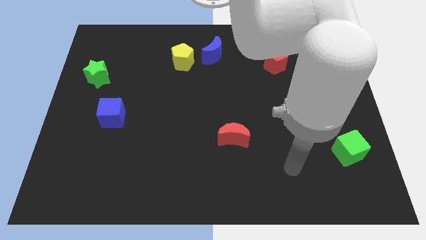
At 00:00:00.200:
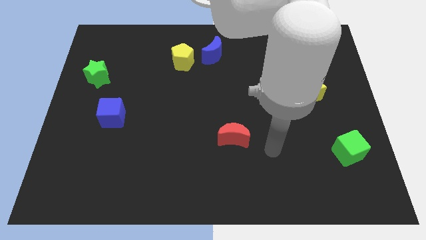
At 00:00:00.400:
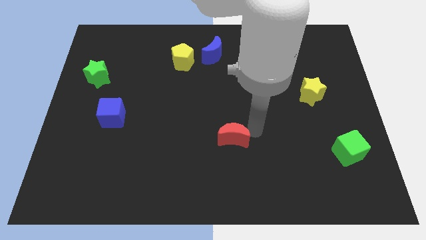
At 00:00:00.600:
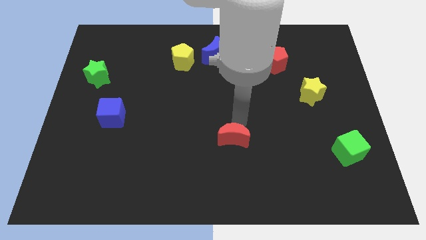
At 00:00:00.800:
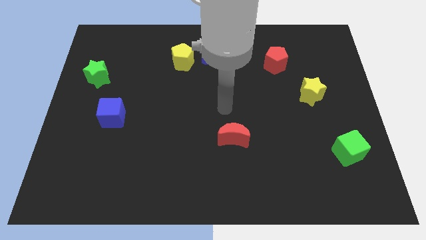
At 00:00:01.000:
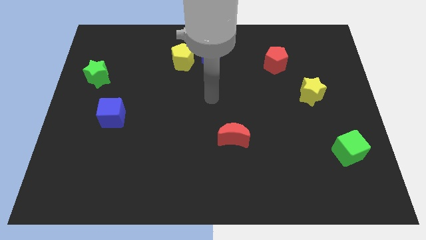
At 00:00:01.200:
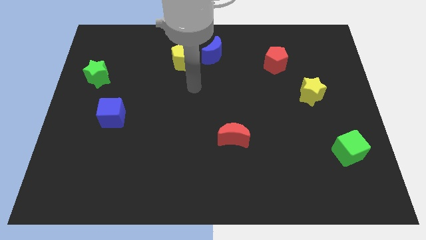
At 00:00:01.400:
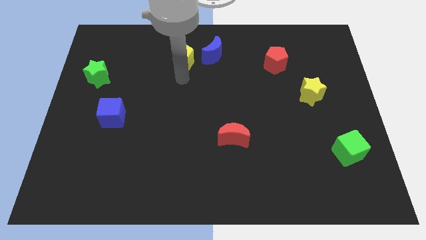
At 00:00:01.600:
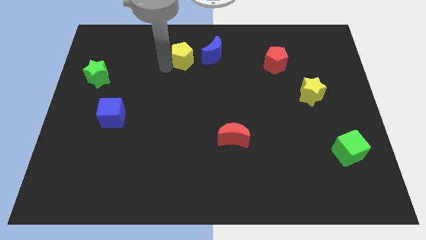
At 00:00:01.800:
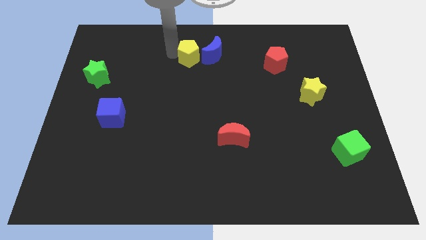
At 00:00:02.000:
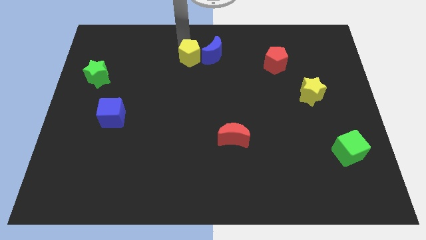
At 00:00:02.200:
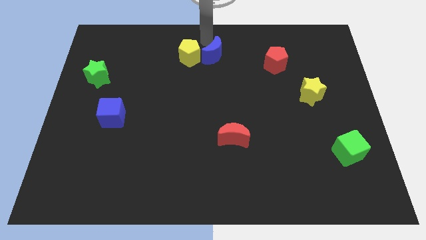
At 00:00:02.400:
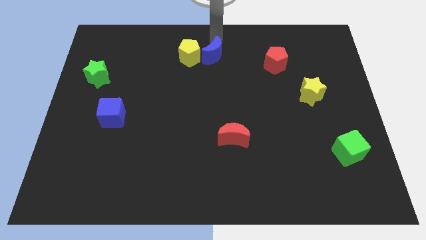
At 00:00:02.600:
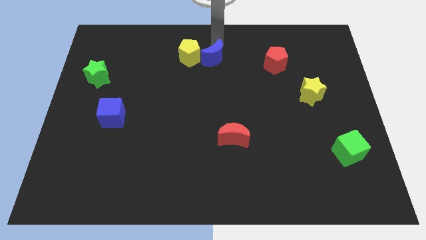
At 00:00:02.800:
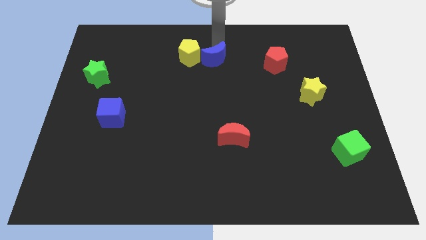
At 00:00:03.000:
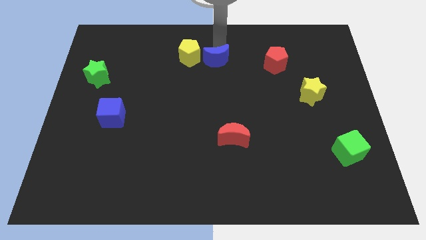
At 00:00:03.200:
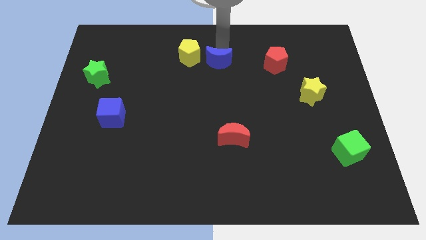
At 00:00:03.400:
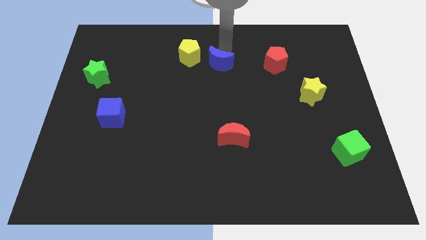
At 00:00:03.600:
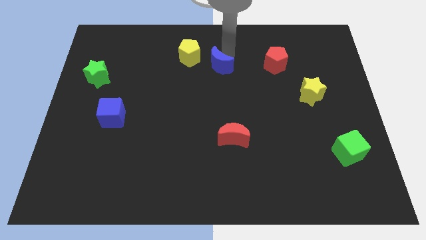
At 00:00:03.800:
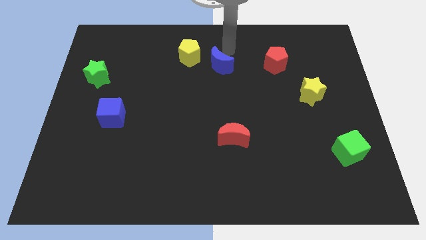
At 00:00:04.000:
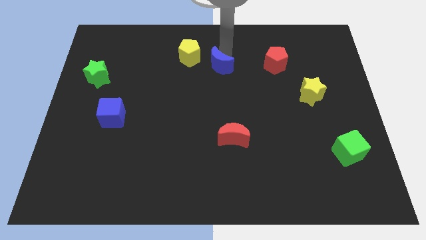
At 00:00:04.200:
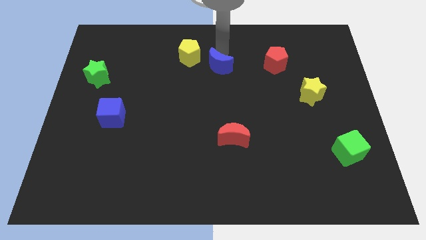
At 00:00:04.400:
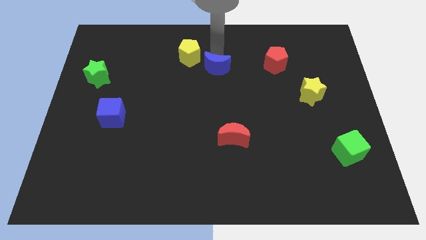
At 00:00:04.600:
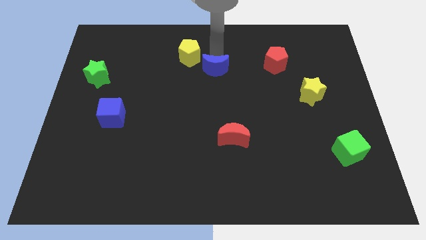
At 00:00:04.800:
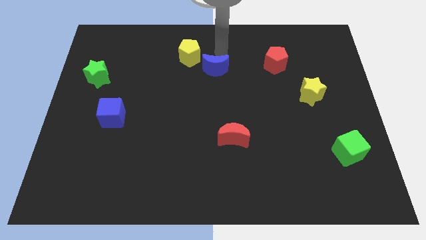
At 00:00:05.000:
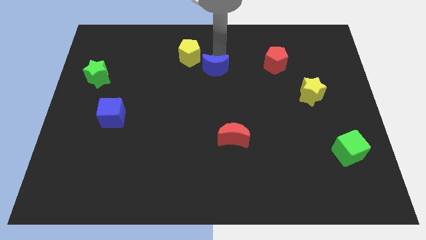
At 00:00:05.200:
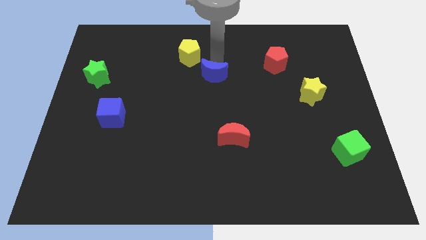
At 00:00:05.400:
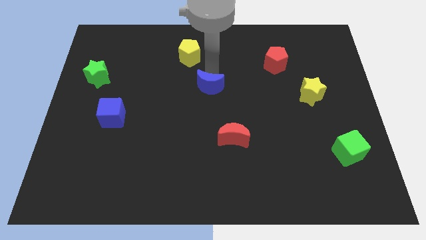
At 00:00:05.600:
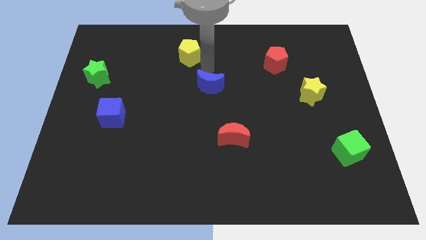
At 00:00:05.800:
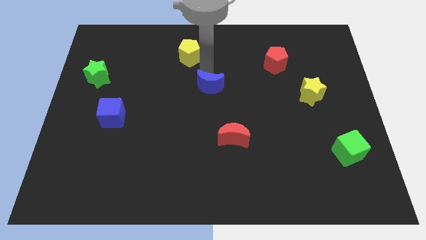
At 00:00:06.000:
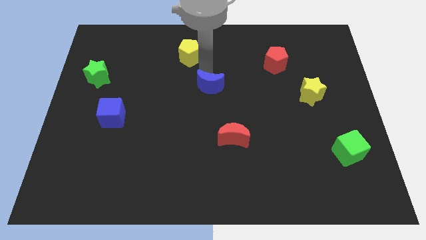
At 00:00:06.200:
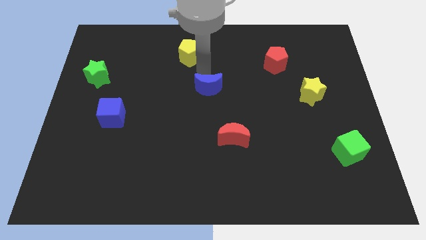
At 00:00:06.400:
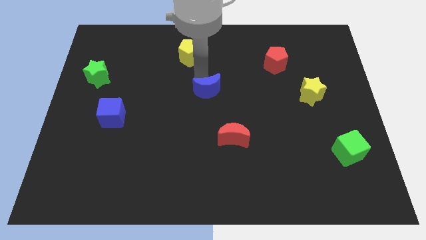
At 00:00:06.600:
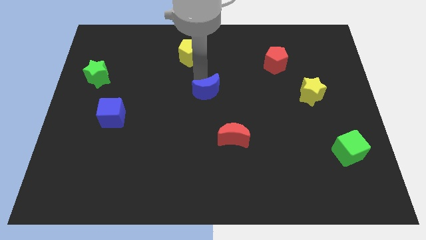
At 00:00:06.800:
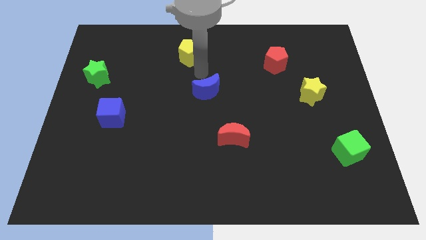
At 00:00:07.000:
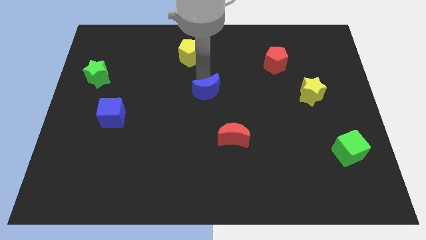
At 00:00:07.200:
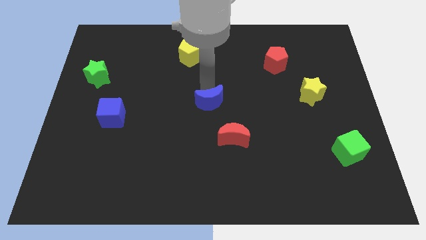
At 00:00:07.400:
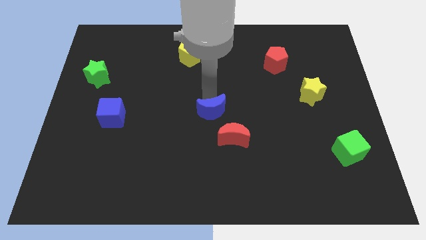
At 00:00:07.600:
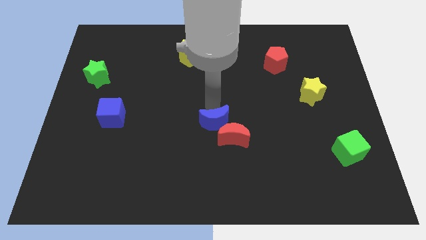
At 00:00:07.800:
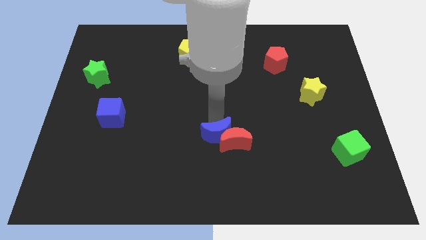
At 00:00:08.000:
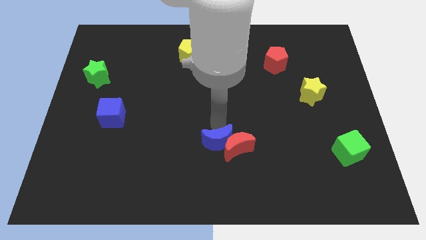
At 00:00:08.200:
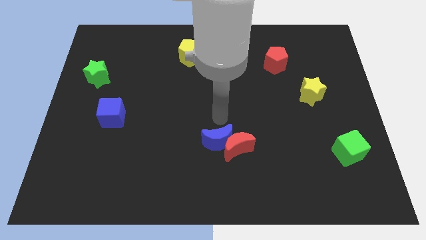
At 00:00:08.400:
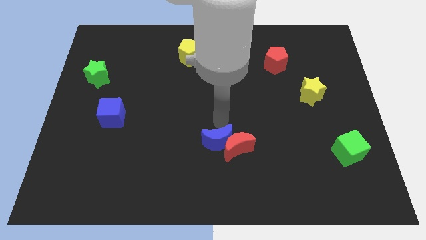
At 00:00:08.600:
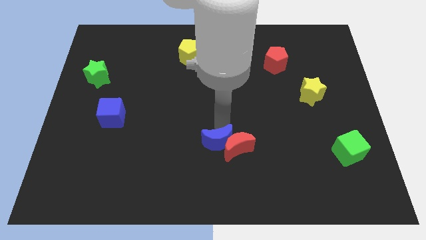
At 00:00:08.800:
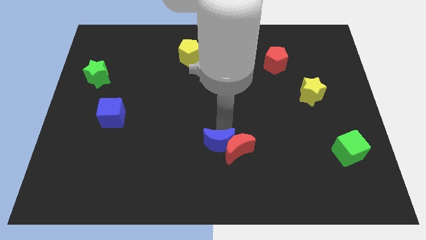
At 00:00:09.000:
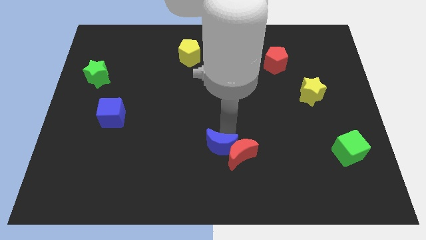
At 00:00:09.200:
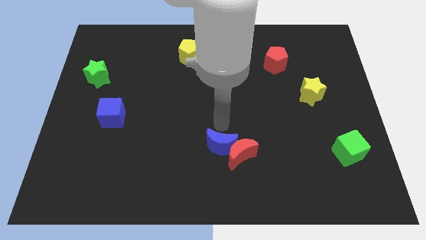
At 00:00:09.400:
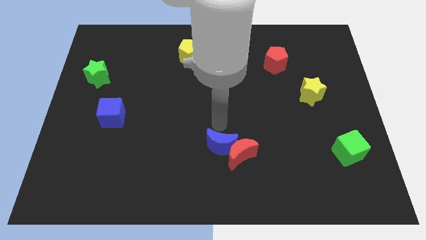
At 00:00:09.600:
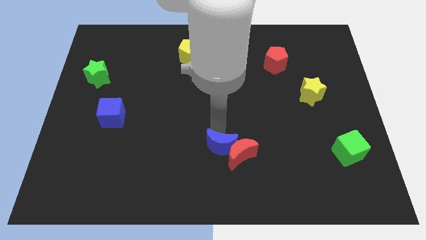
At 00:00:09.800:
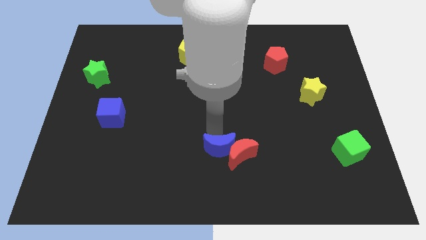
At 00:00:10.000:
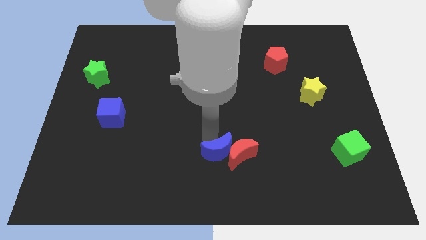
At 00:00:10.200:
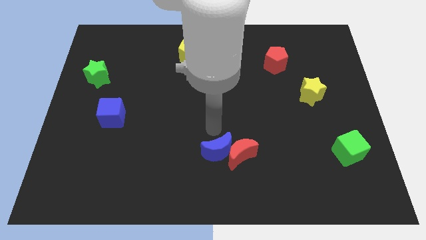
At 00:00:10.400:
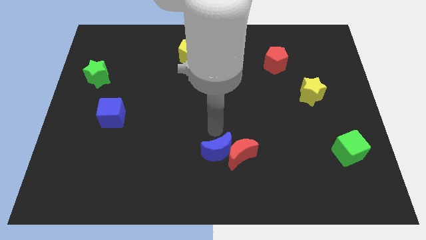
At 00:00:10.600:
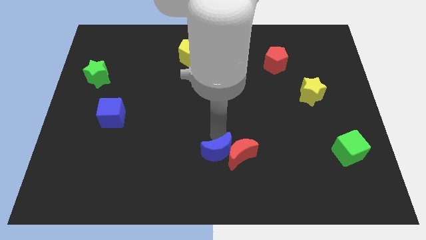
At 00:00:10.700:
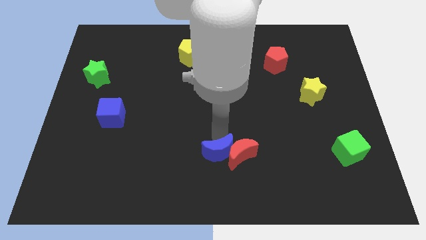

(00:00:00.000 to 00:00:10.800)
push the blue moon to the bottom side
